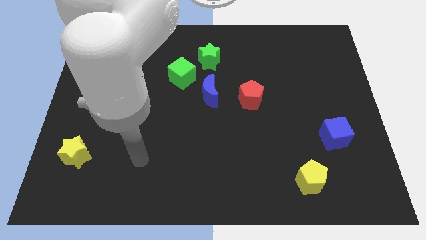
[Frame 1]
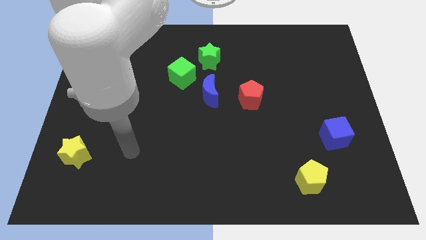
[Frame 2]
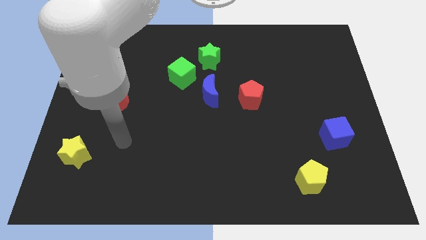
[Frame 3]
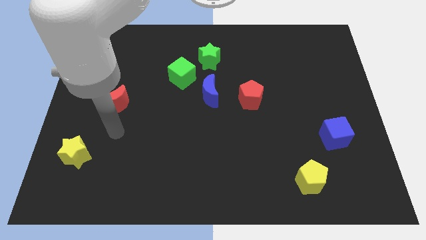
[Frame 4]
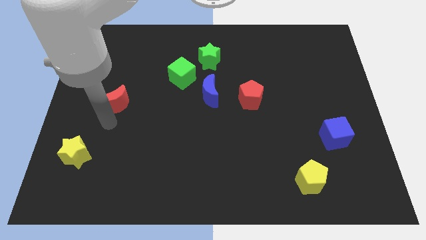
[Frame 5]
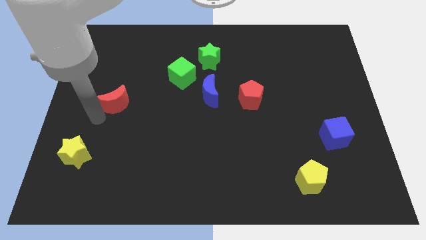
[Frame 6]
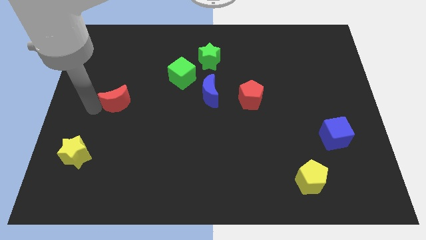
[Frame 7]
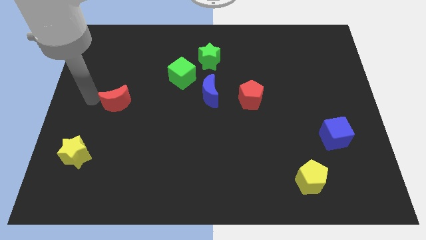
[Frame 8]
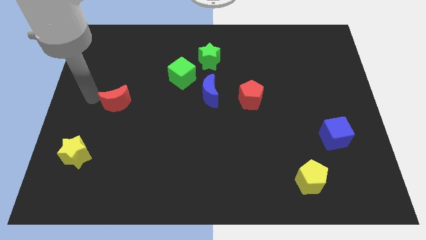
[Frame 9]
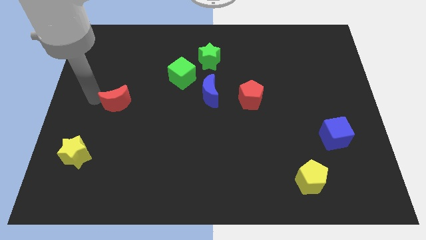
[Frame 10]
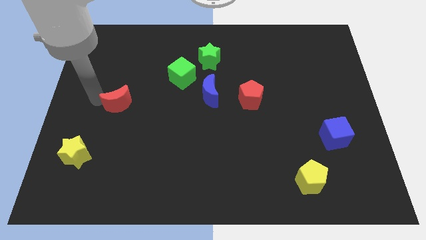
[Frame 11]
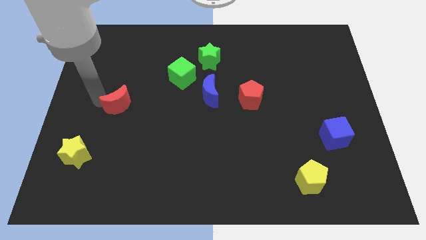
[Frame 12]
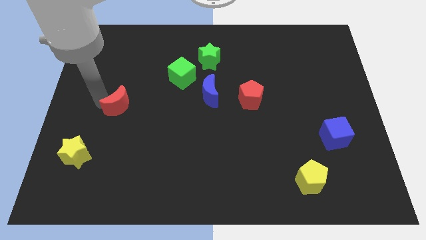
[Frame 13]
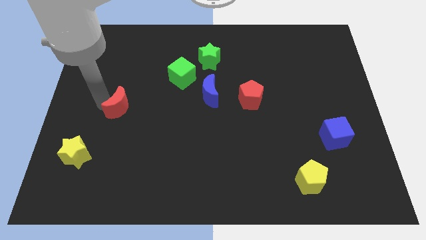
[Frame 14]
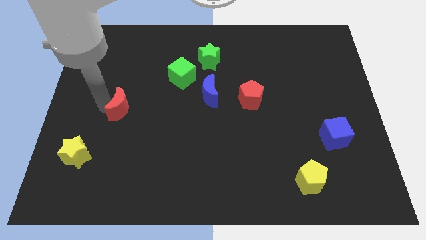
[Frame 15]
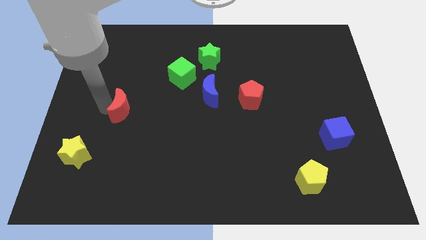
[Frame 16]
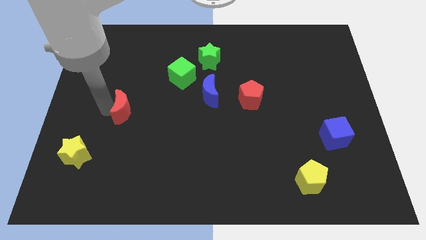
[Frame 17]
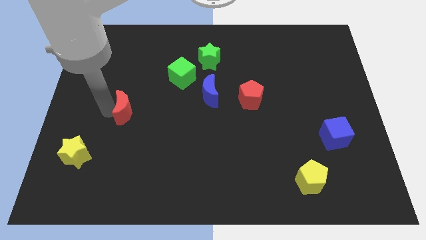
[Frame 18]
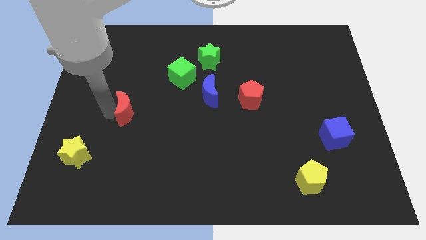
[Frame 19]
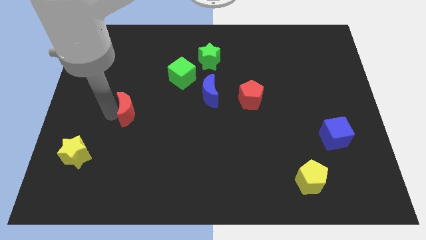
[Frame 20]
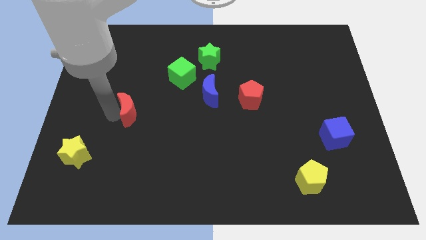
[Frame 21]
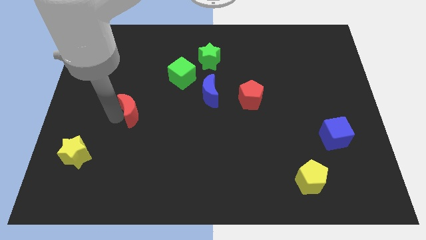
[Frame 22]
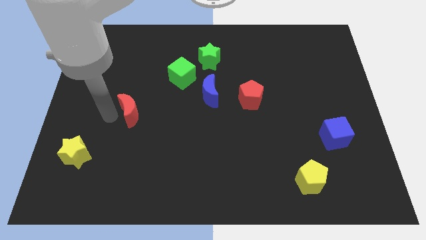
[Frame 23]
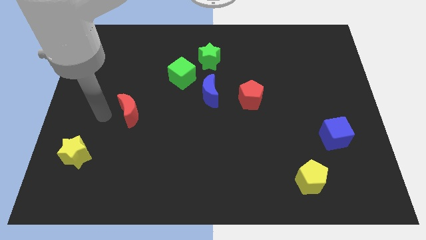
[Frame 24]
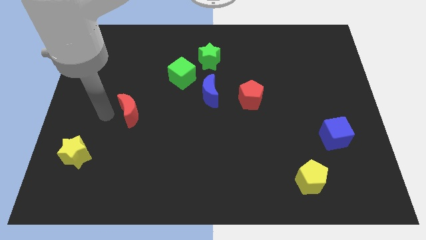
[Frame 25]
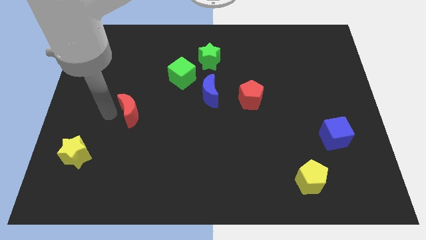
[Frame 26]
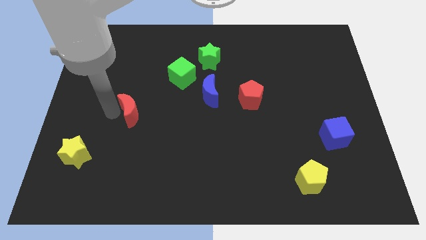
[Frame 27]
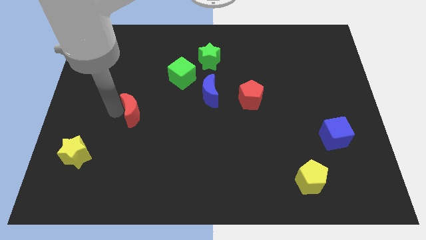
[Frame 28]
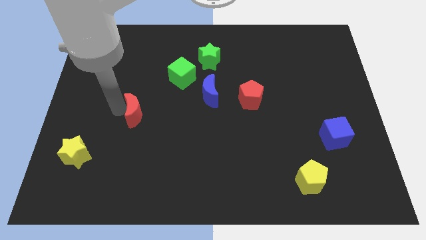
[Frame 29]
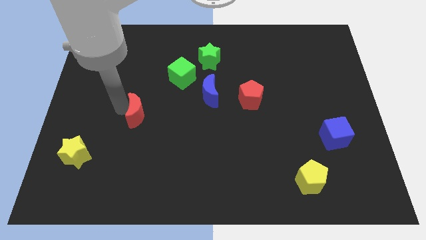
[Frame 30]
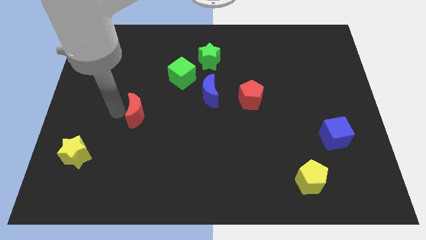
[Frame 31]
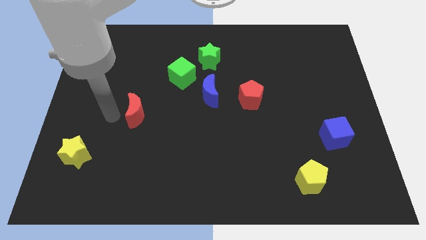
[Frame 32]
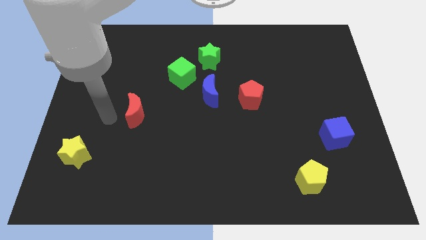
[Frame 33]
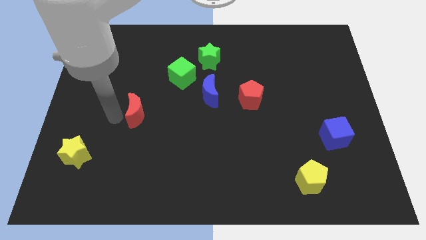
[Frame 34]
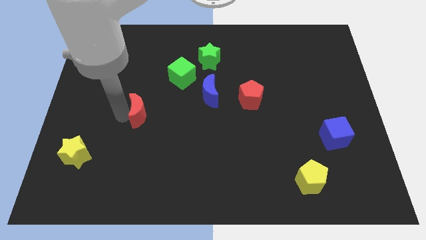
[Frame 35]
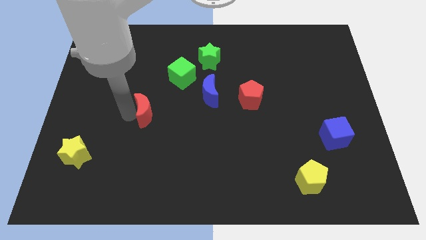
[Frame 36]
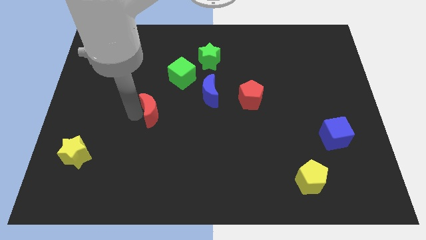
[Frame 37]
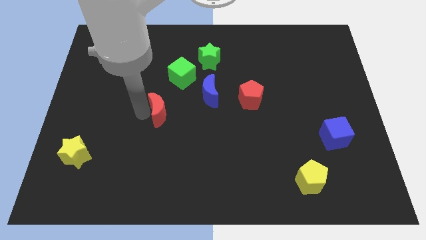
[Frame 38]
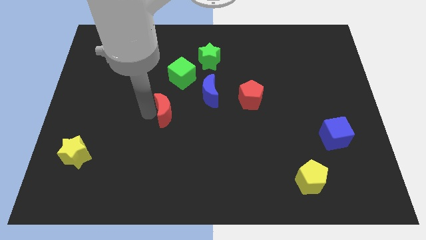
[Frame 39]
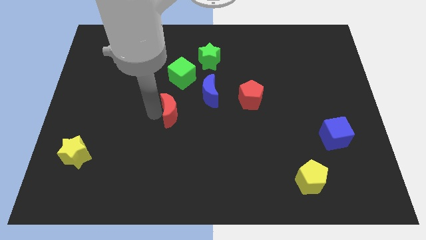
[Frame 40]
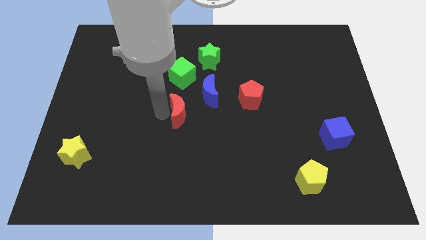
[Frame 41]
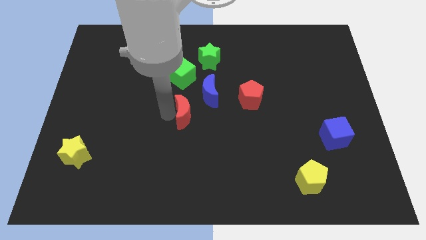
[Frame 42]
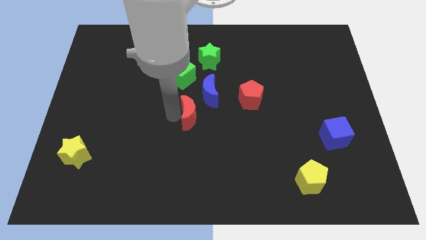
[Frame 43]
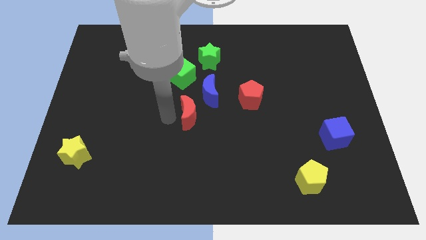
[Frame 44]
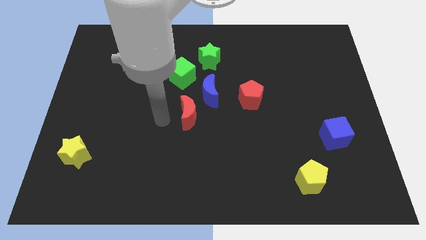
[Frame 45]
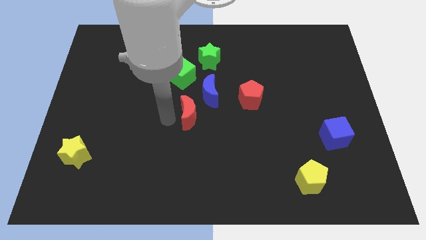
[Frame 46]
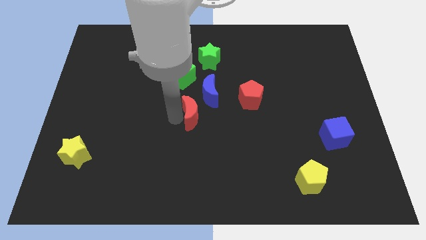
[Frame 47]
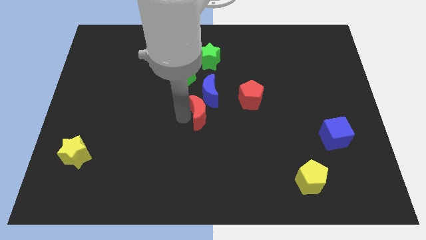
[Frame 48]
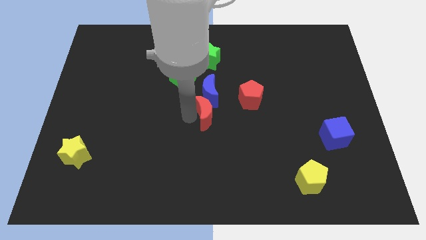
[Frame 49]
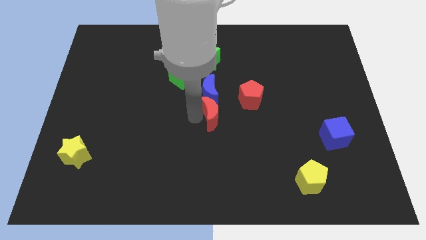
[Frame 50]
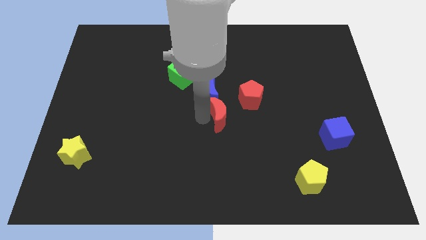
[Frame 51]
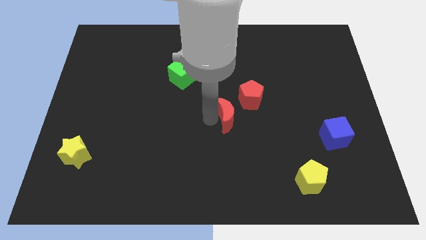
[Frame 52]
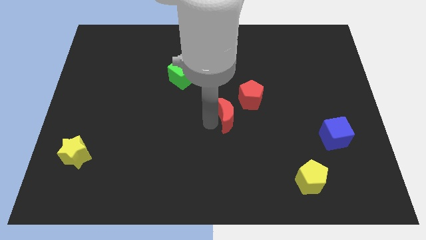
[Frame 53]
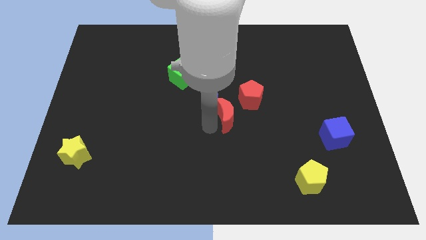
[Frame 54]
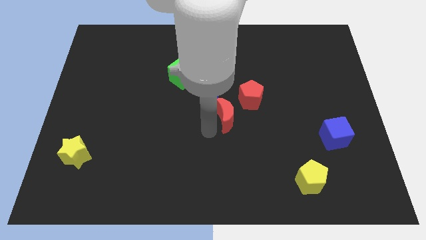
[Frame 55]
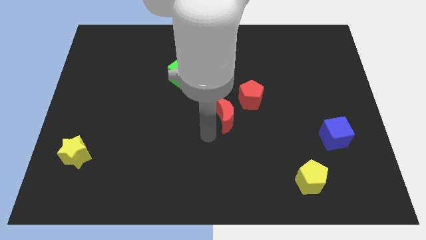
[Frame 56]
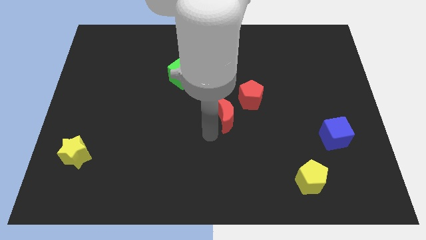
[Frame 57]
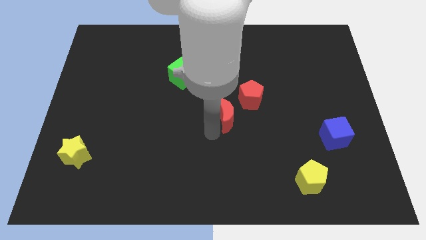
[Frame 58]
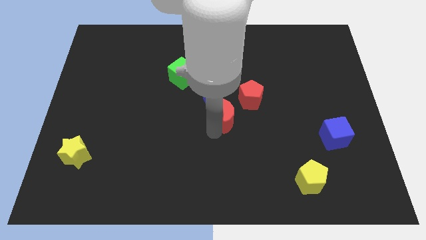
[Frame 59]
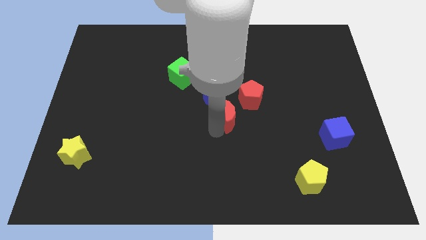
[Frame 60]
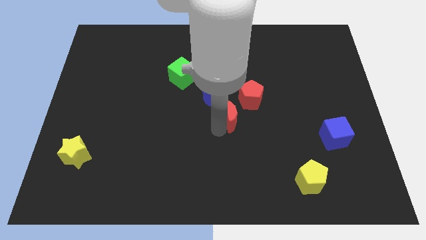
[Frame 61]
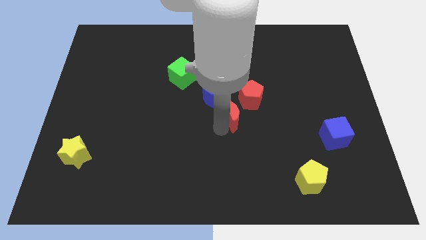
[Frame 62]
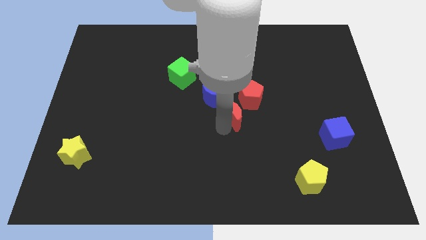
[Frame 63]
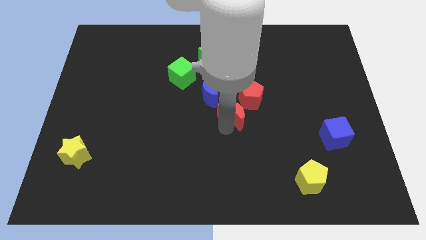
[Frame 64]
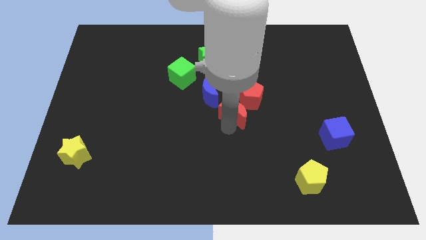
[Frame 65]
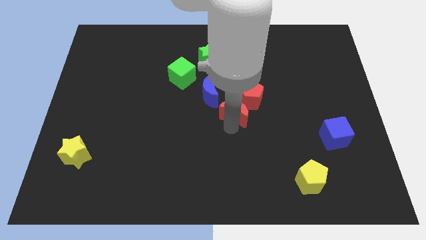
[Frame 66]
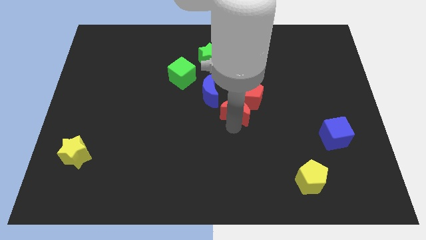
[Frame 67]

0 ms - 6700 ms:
move the red moon next to the red pentagon
